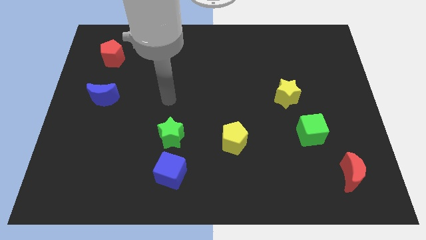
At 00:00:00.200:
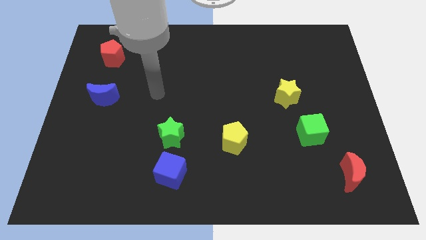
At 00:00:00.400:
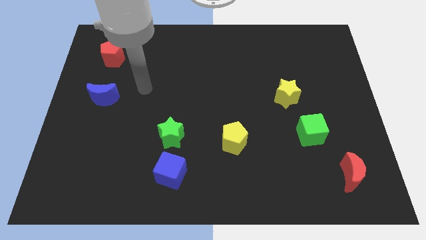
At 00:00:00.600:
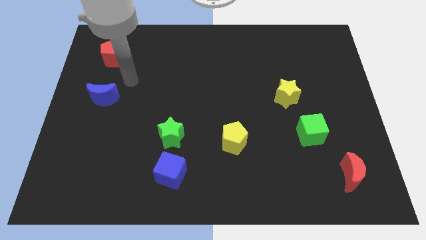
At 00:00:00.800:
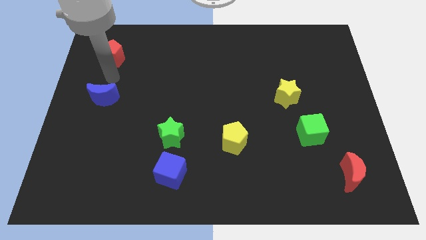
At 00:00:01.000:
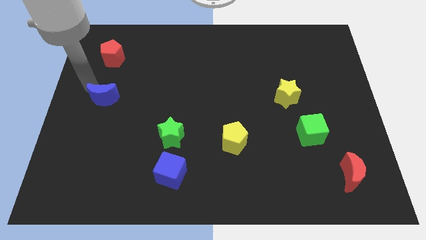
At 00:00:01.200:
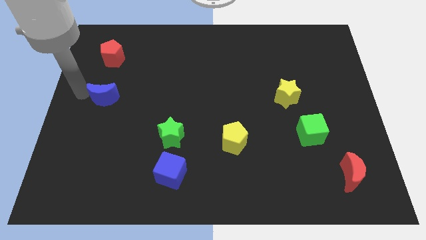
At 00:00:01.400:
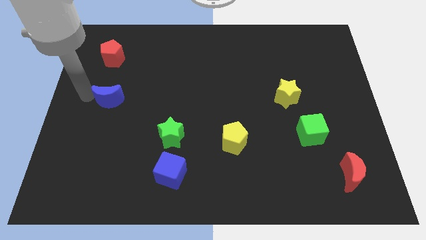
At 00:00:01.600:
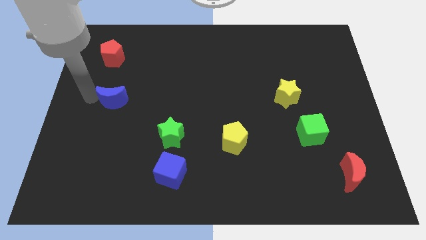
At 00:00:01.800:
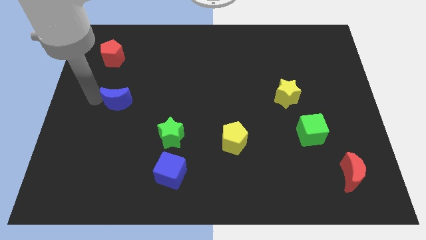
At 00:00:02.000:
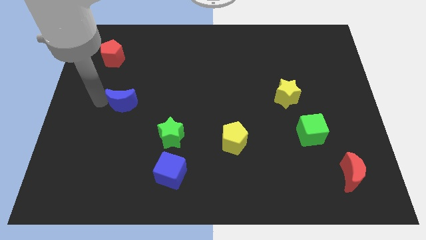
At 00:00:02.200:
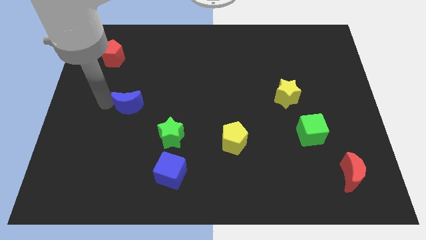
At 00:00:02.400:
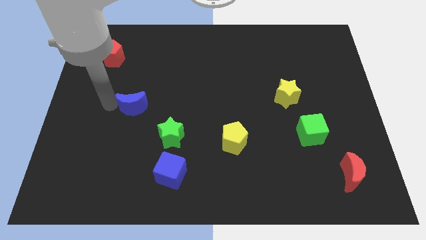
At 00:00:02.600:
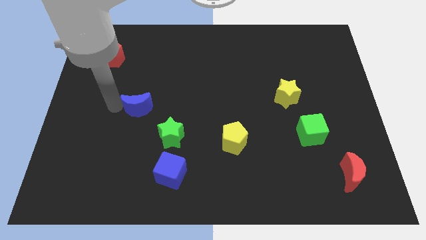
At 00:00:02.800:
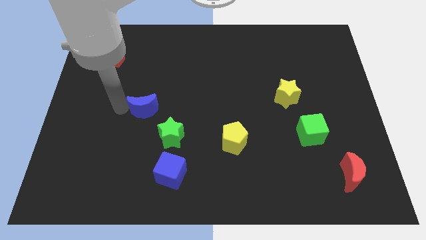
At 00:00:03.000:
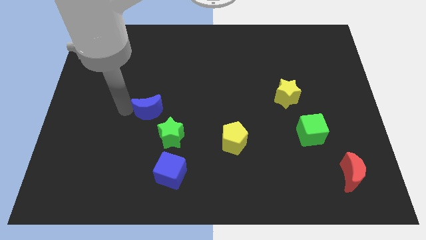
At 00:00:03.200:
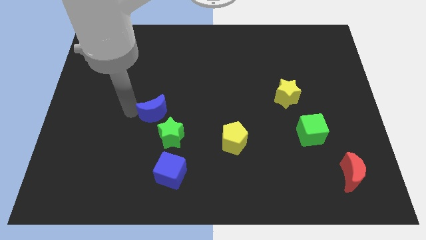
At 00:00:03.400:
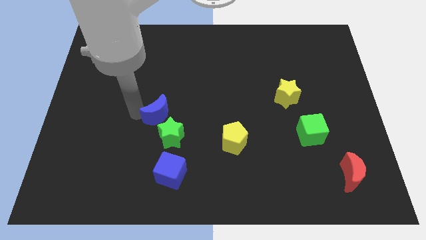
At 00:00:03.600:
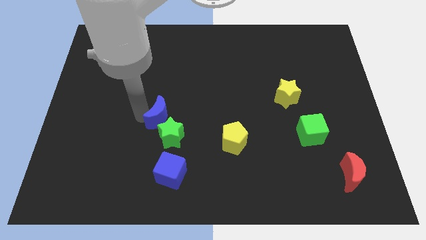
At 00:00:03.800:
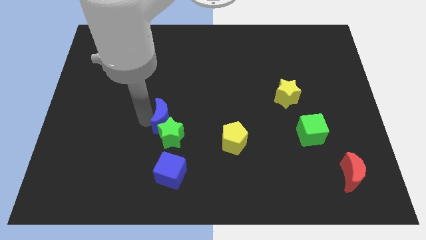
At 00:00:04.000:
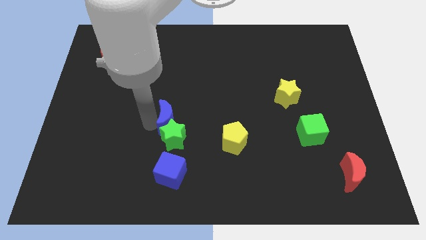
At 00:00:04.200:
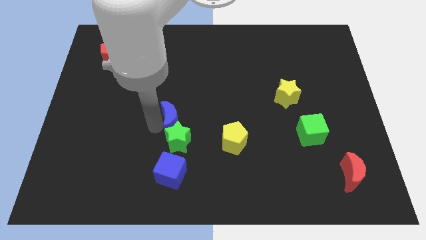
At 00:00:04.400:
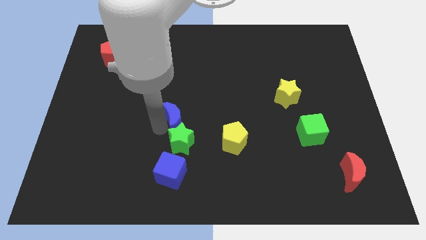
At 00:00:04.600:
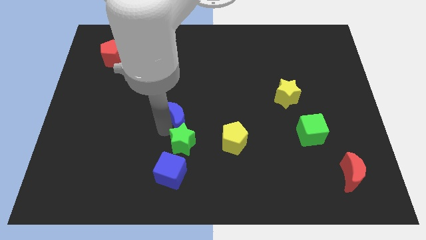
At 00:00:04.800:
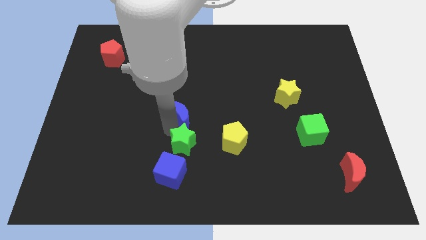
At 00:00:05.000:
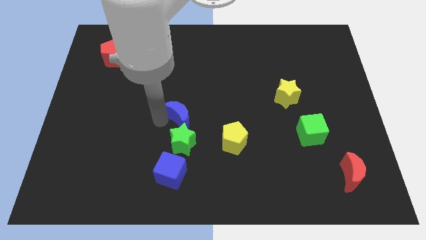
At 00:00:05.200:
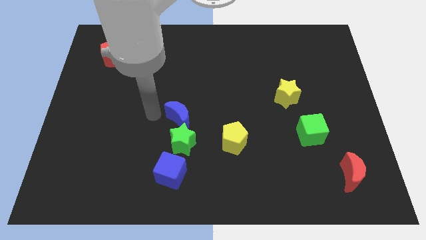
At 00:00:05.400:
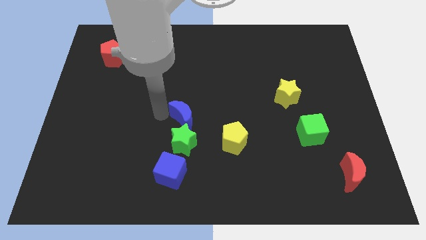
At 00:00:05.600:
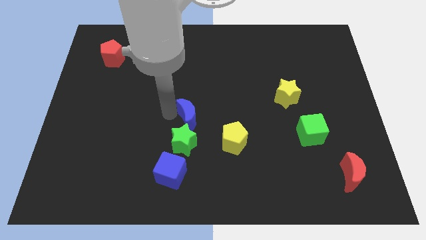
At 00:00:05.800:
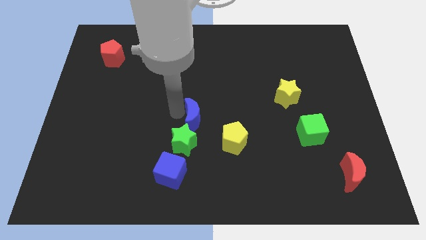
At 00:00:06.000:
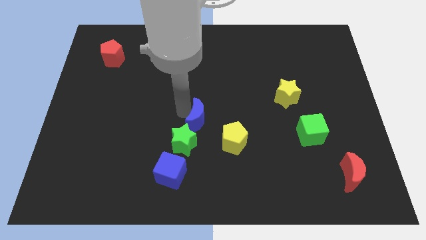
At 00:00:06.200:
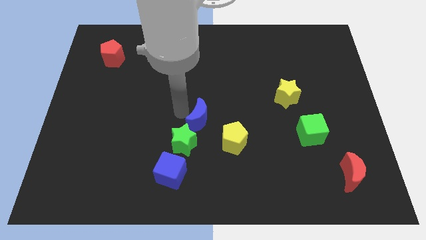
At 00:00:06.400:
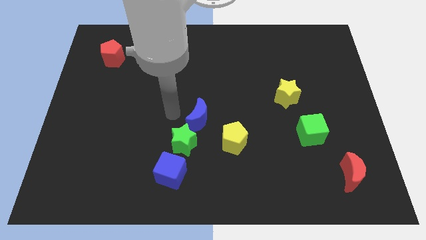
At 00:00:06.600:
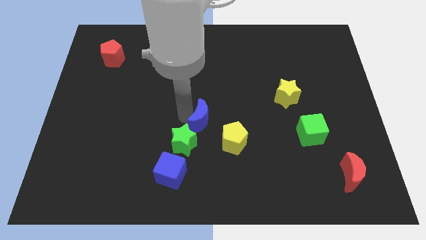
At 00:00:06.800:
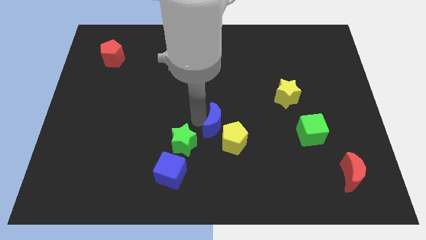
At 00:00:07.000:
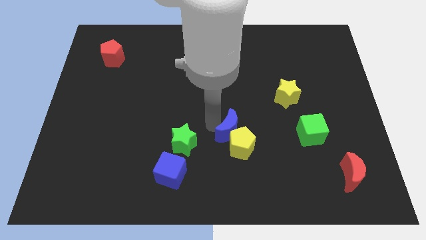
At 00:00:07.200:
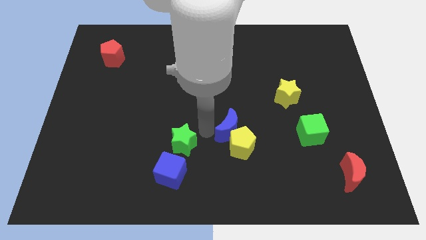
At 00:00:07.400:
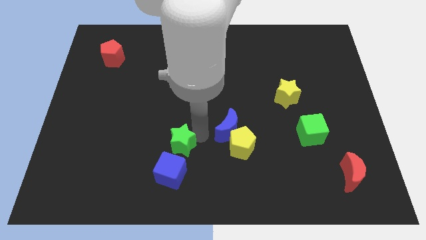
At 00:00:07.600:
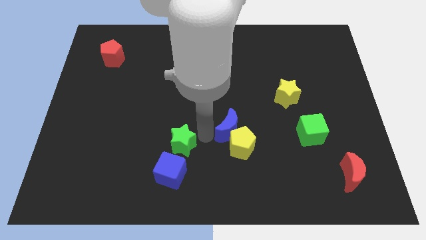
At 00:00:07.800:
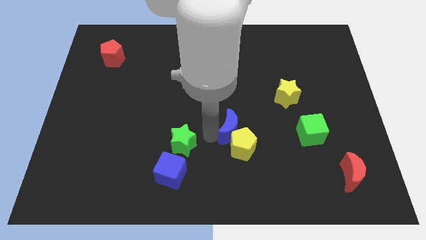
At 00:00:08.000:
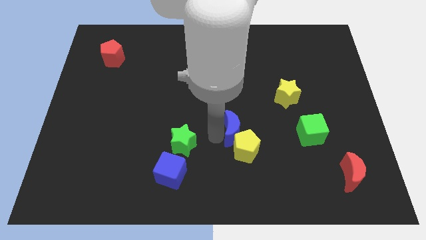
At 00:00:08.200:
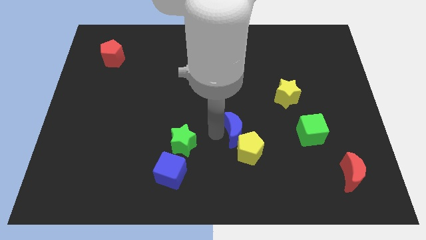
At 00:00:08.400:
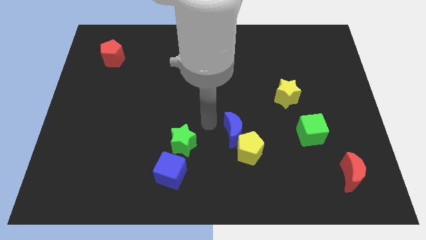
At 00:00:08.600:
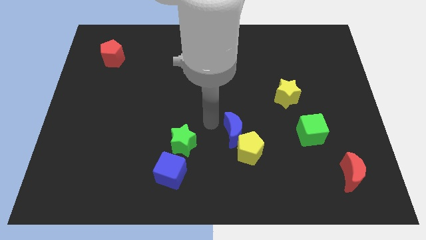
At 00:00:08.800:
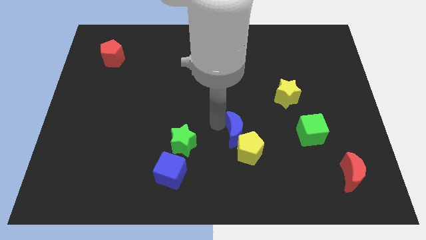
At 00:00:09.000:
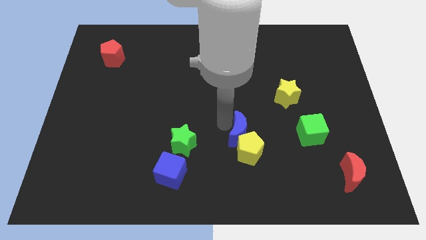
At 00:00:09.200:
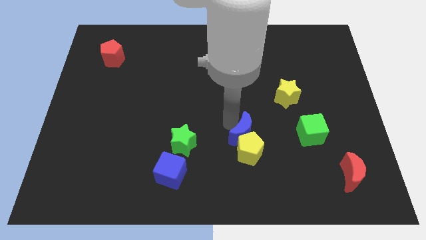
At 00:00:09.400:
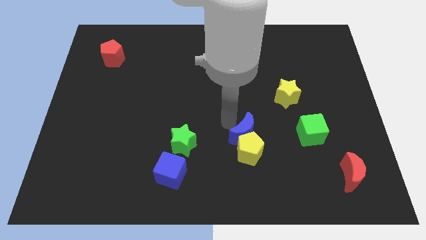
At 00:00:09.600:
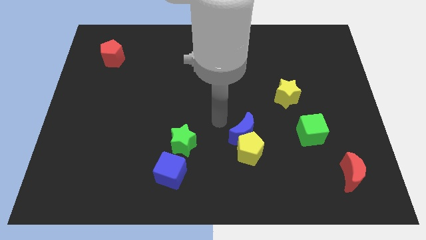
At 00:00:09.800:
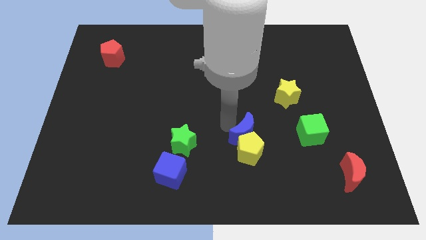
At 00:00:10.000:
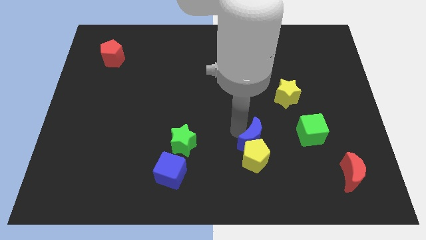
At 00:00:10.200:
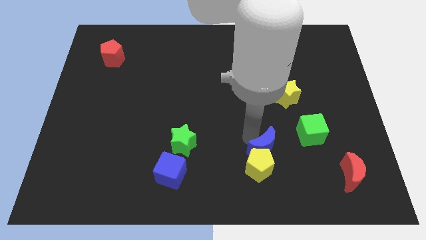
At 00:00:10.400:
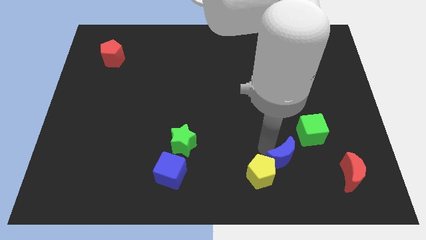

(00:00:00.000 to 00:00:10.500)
slide the blue moon to the left side of the red moon

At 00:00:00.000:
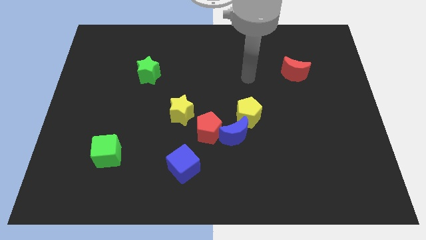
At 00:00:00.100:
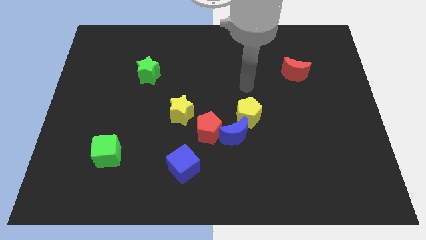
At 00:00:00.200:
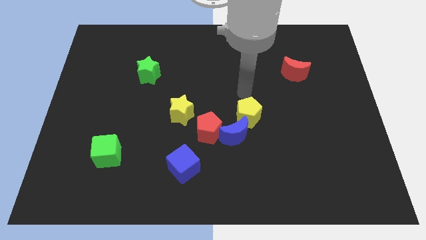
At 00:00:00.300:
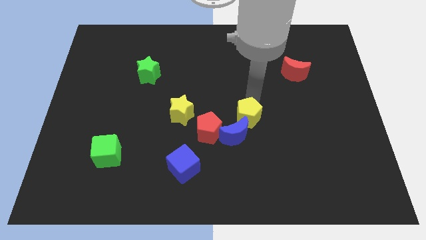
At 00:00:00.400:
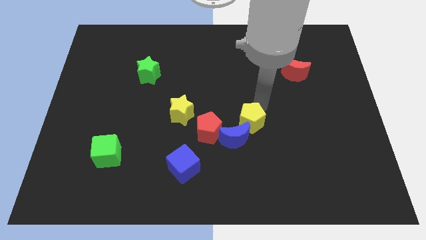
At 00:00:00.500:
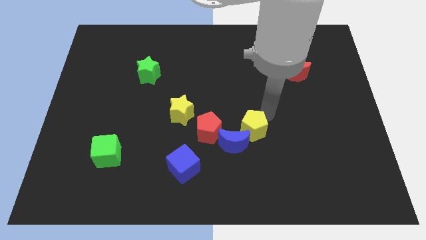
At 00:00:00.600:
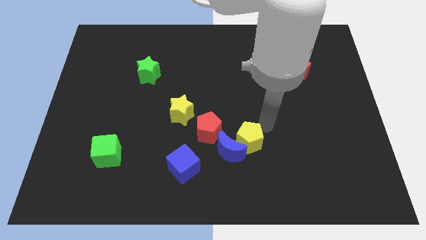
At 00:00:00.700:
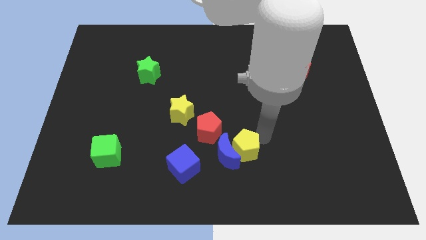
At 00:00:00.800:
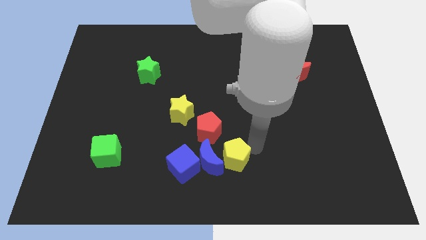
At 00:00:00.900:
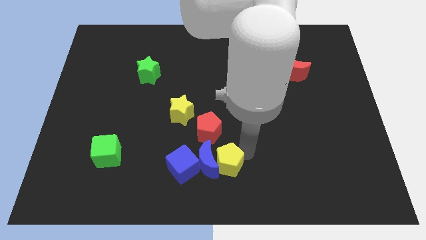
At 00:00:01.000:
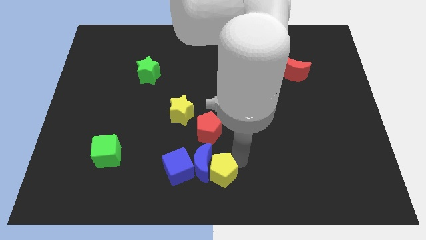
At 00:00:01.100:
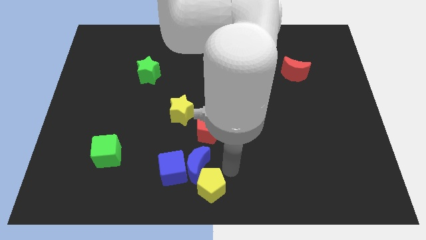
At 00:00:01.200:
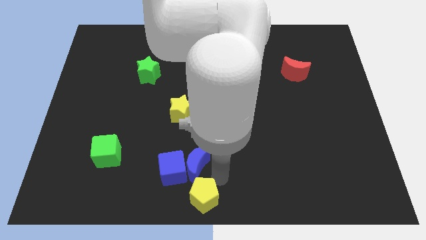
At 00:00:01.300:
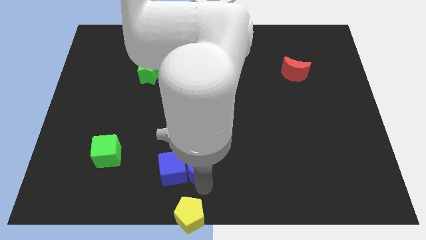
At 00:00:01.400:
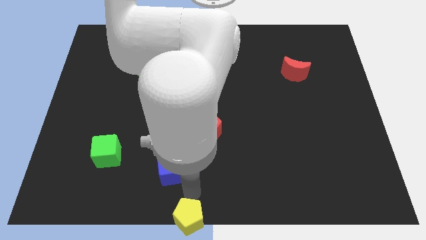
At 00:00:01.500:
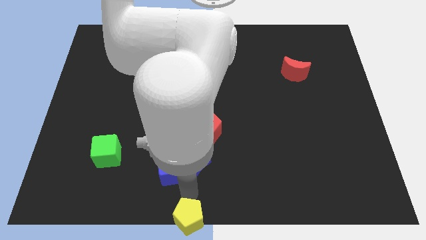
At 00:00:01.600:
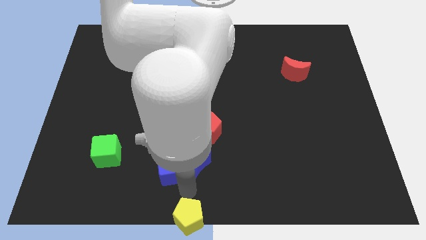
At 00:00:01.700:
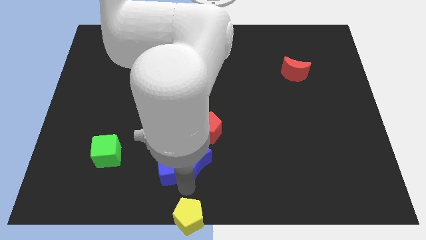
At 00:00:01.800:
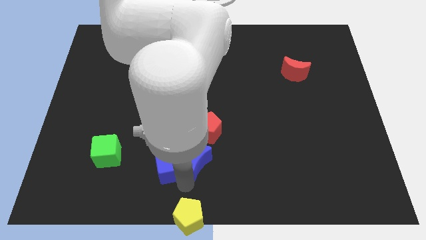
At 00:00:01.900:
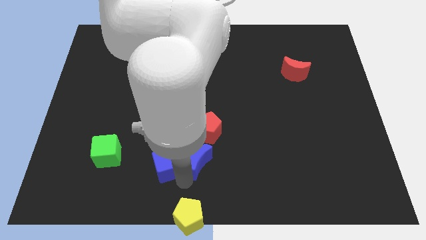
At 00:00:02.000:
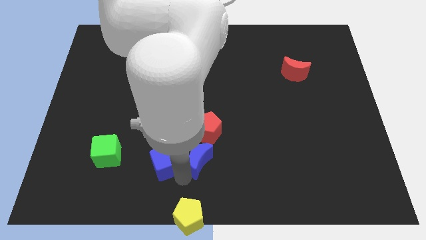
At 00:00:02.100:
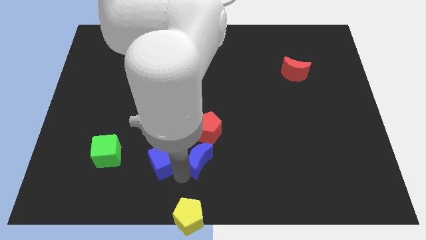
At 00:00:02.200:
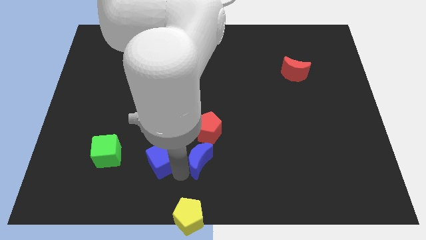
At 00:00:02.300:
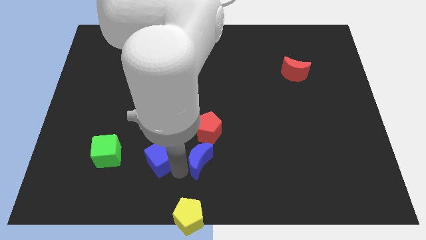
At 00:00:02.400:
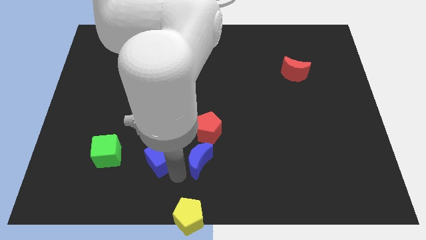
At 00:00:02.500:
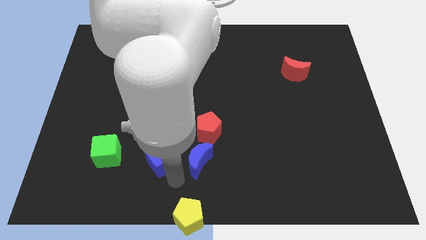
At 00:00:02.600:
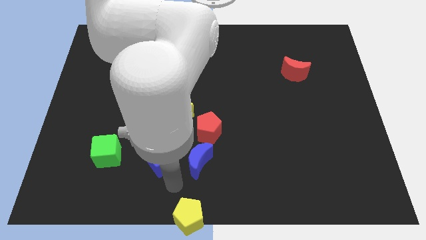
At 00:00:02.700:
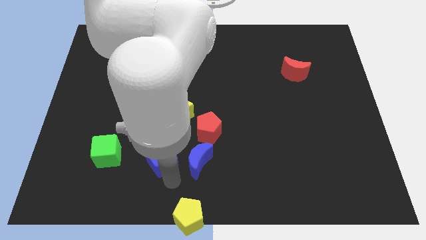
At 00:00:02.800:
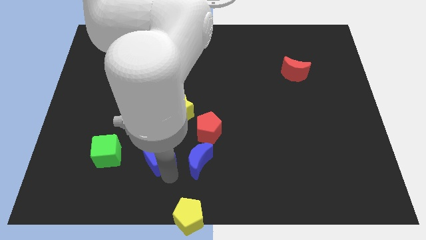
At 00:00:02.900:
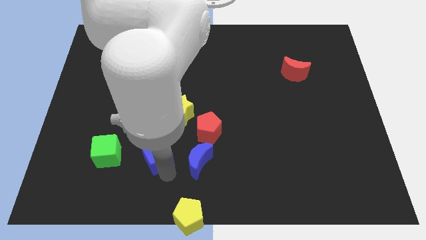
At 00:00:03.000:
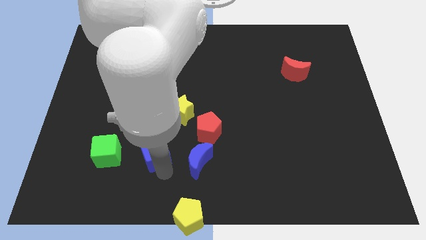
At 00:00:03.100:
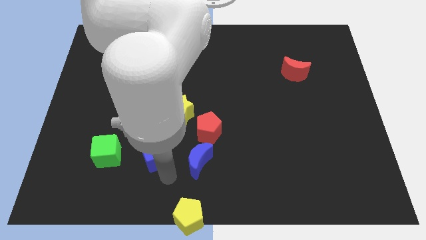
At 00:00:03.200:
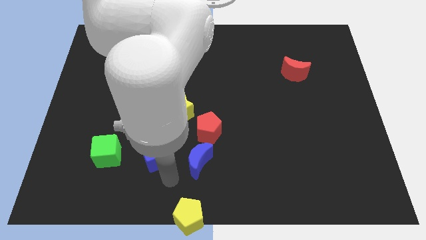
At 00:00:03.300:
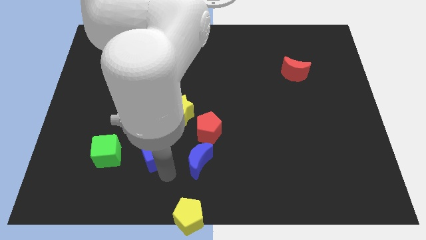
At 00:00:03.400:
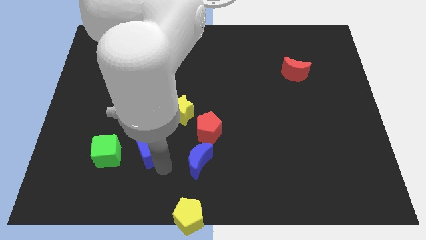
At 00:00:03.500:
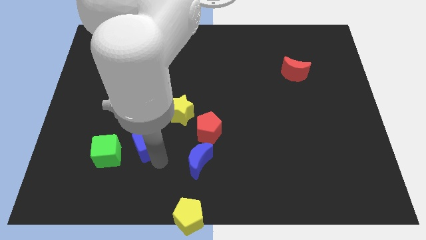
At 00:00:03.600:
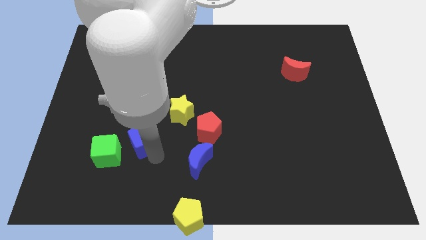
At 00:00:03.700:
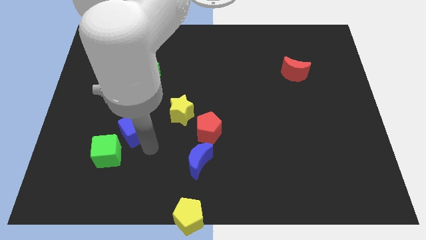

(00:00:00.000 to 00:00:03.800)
move the blue cube above the green cube
